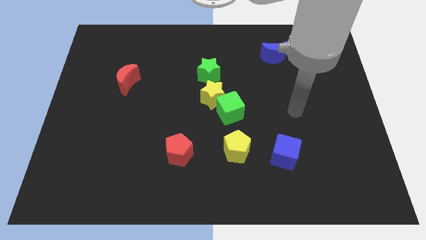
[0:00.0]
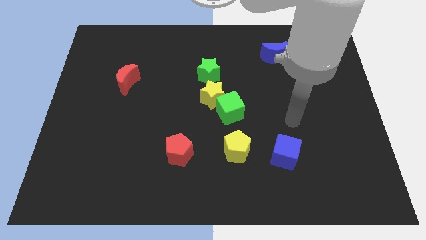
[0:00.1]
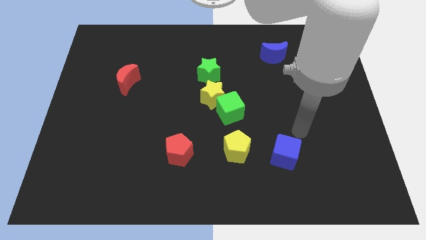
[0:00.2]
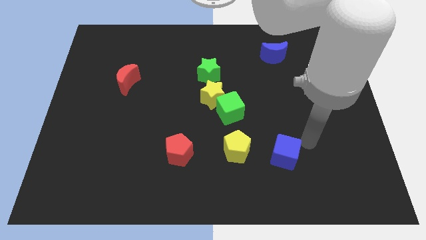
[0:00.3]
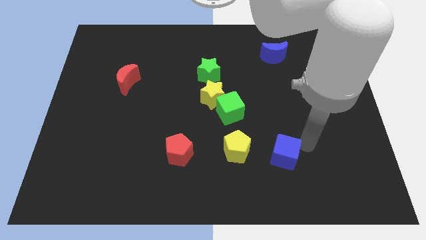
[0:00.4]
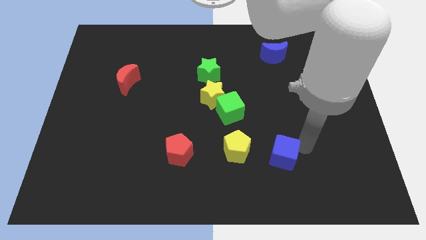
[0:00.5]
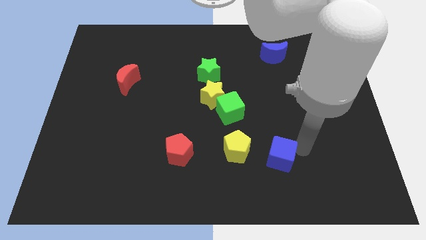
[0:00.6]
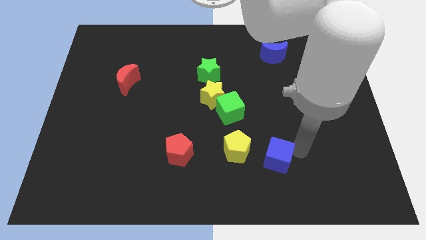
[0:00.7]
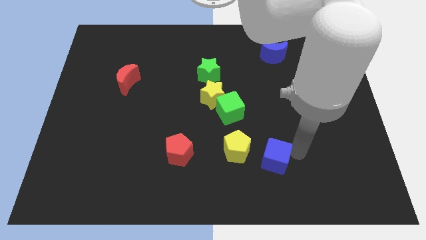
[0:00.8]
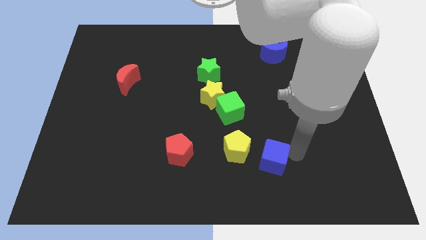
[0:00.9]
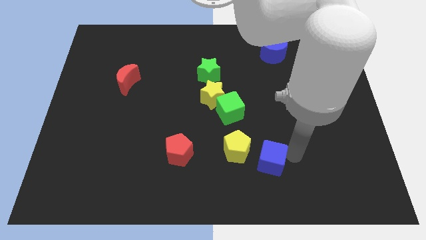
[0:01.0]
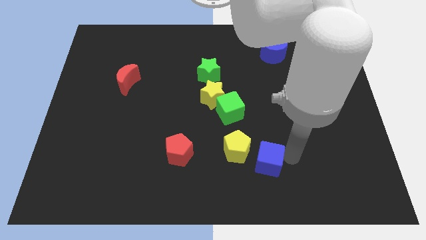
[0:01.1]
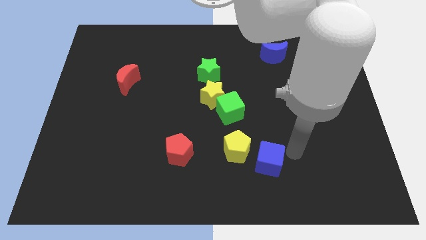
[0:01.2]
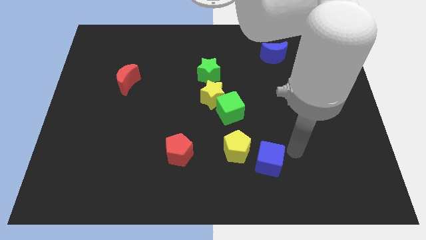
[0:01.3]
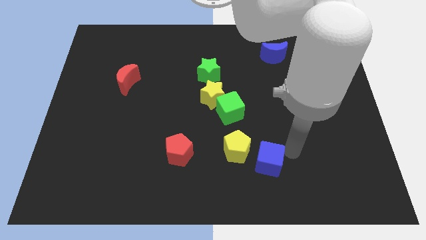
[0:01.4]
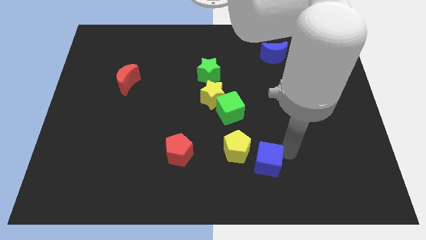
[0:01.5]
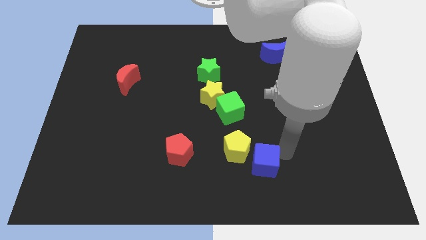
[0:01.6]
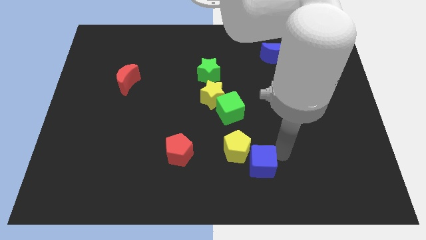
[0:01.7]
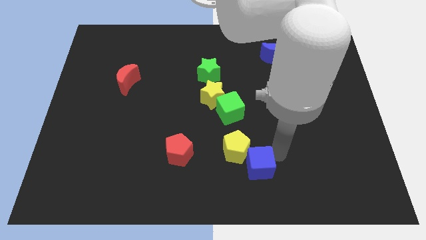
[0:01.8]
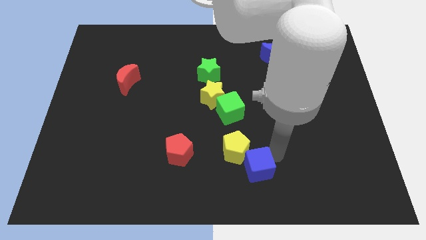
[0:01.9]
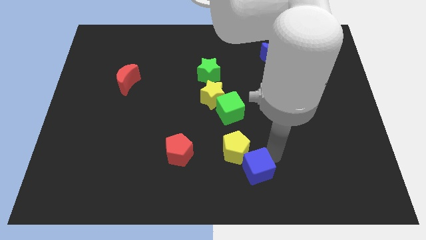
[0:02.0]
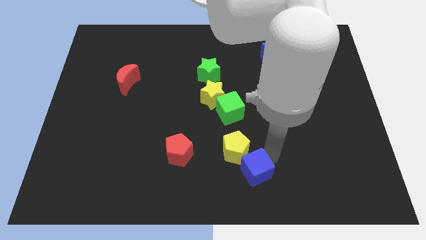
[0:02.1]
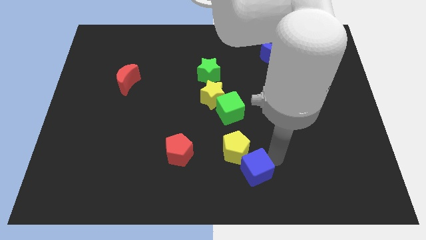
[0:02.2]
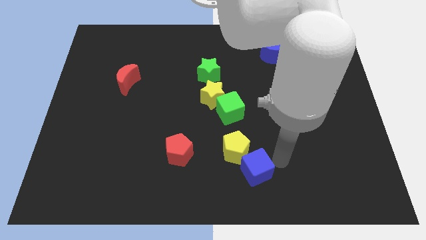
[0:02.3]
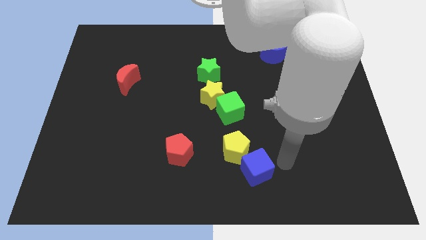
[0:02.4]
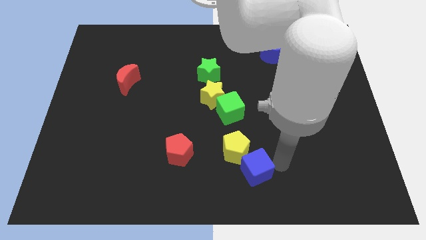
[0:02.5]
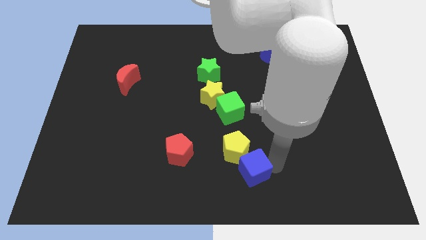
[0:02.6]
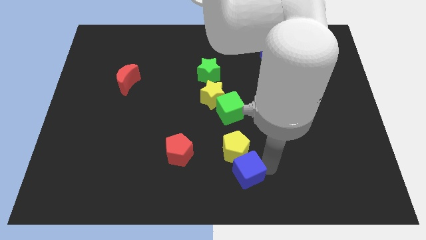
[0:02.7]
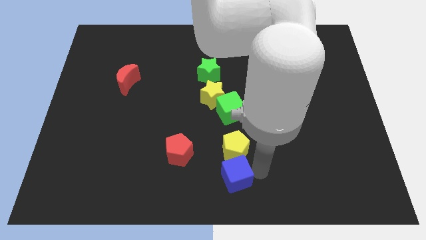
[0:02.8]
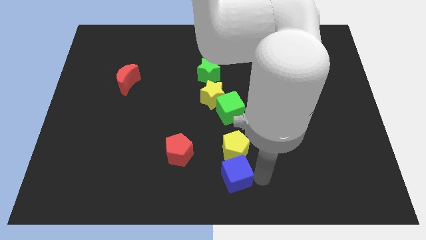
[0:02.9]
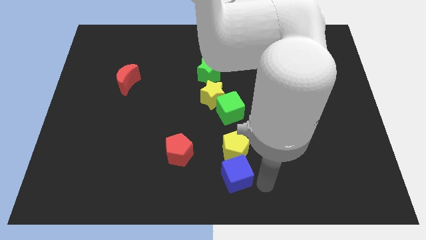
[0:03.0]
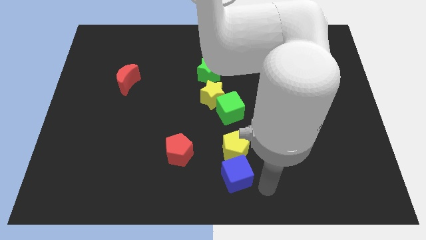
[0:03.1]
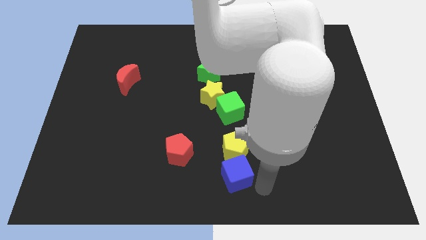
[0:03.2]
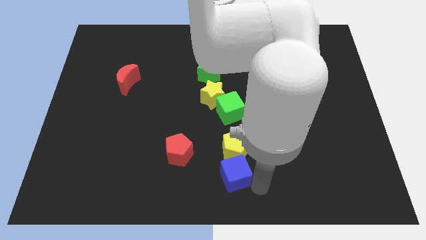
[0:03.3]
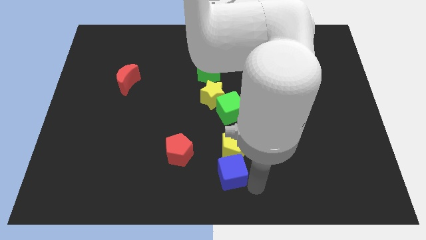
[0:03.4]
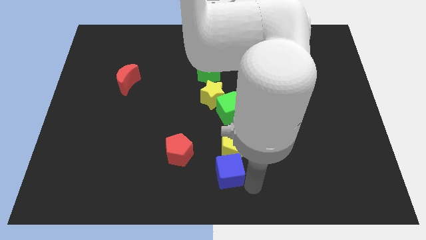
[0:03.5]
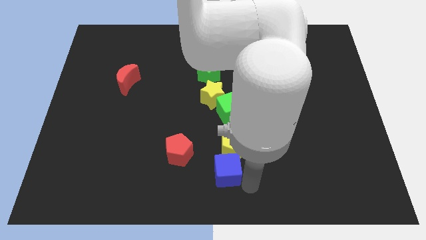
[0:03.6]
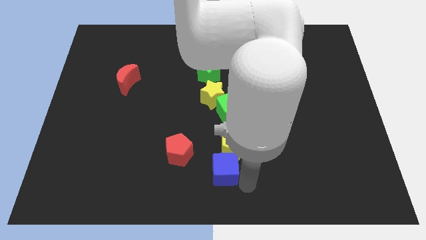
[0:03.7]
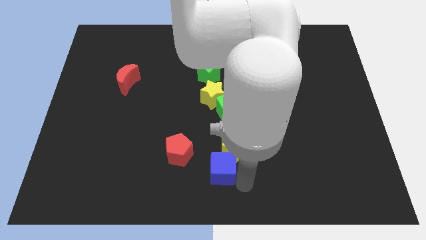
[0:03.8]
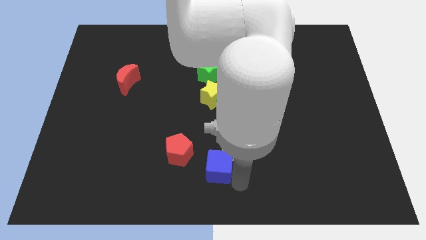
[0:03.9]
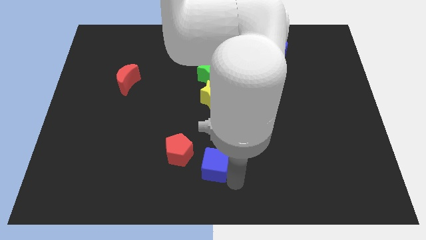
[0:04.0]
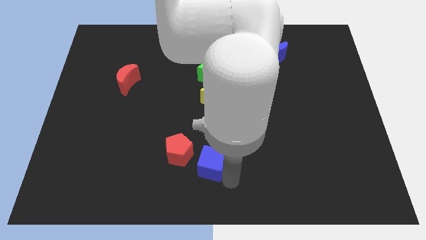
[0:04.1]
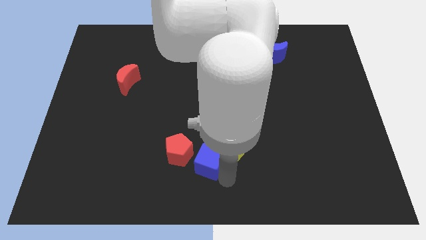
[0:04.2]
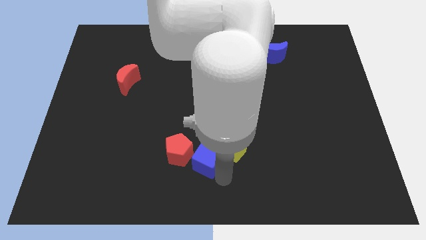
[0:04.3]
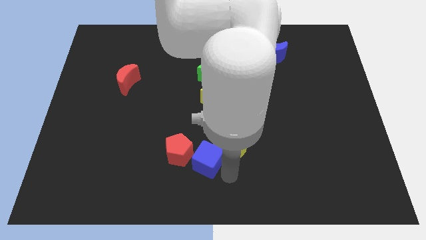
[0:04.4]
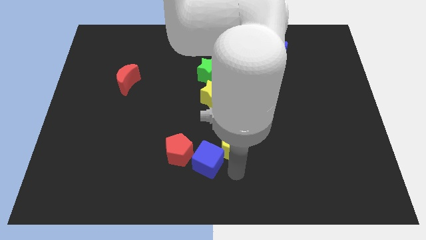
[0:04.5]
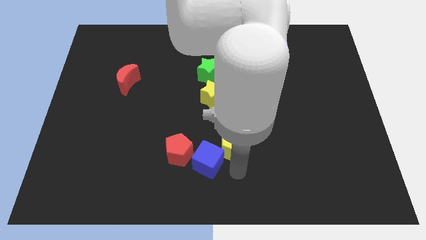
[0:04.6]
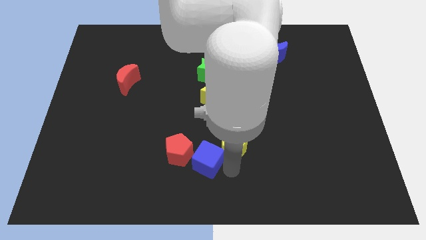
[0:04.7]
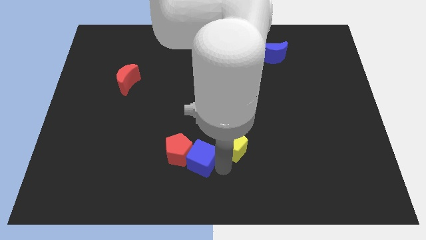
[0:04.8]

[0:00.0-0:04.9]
move the blue cube towards the red pentagon

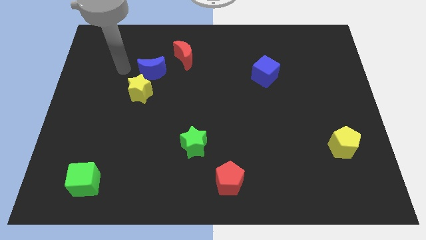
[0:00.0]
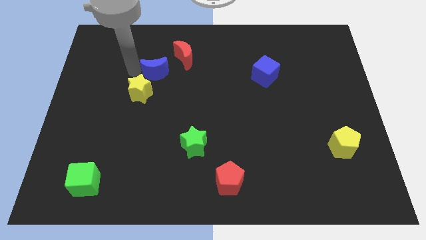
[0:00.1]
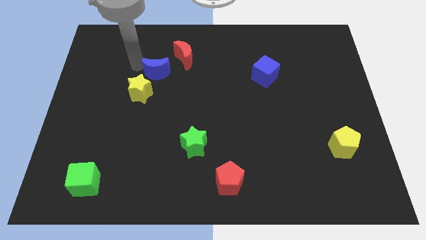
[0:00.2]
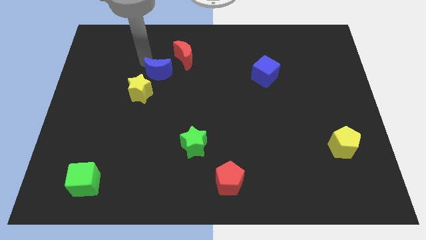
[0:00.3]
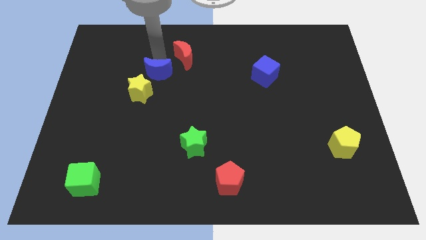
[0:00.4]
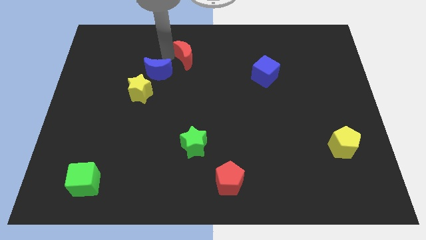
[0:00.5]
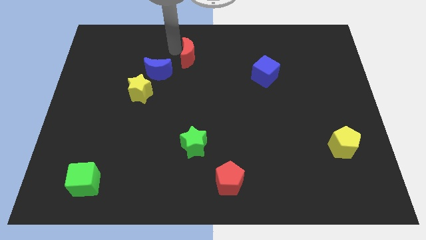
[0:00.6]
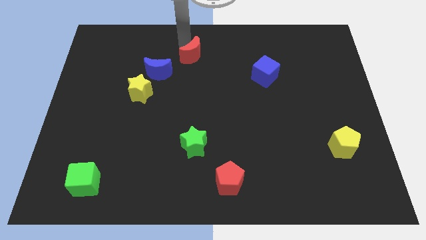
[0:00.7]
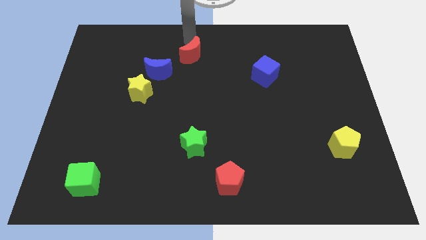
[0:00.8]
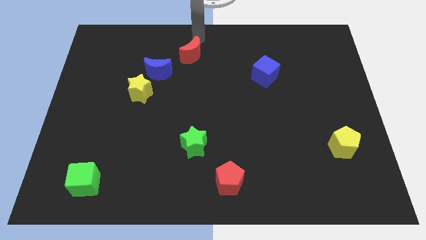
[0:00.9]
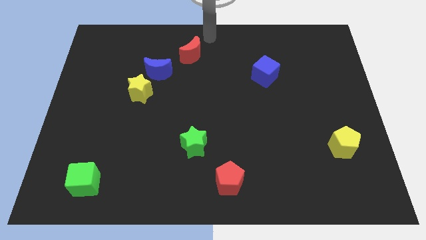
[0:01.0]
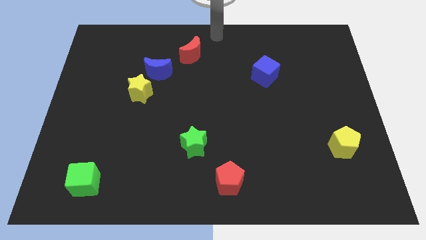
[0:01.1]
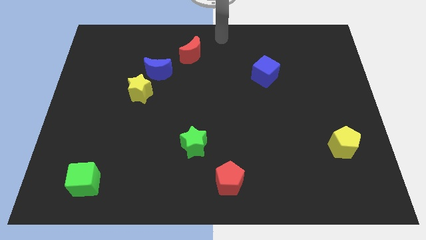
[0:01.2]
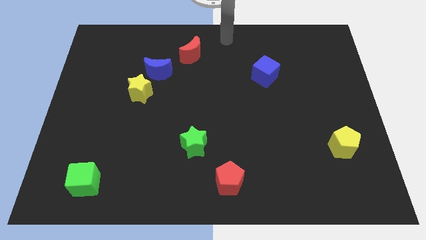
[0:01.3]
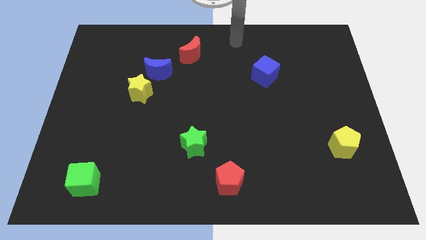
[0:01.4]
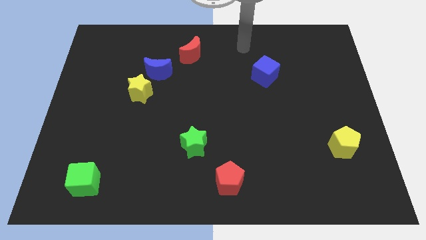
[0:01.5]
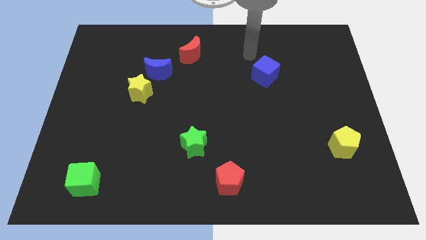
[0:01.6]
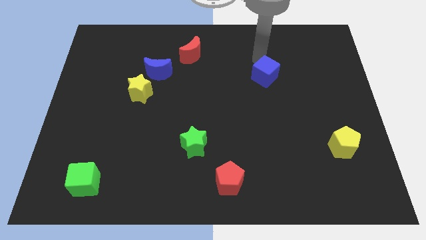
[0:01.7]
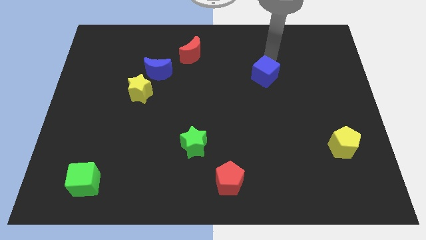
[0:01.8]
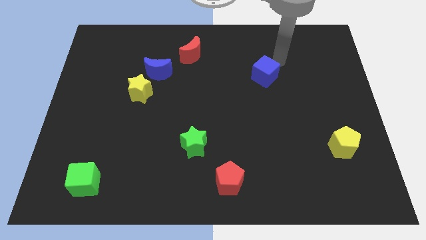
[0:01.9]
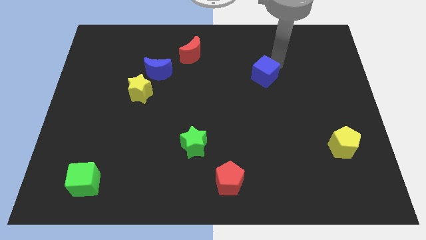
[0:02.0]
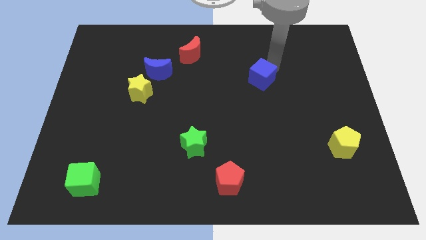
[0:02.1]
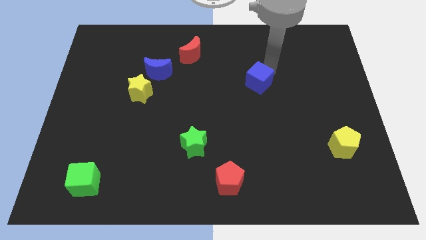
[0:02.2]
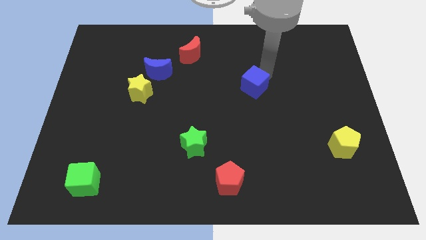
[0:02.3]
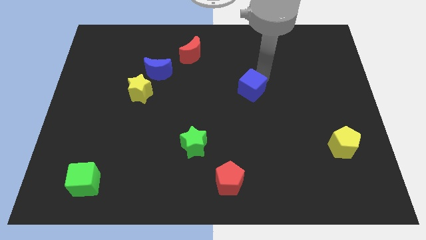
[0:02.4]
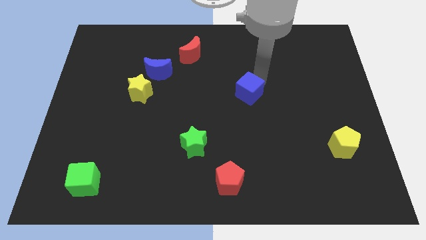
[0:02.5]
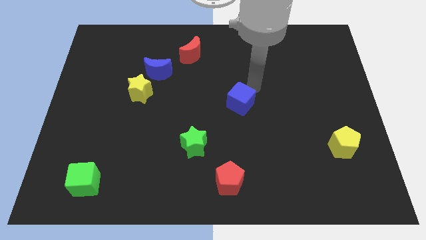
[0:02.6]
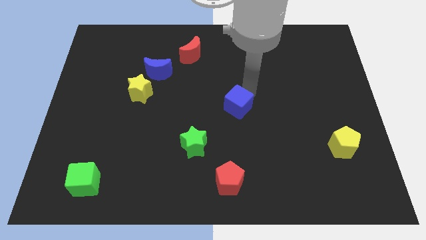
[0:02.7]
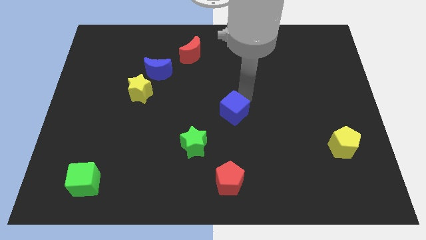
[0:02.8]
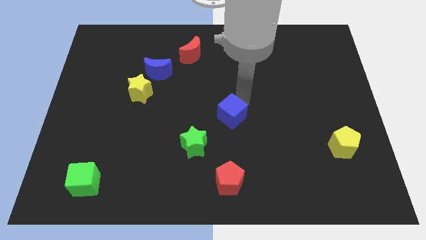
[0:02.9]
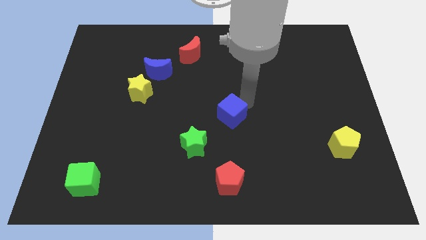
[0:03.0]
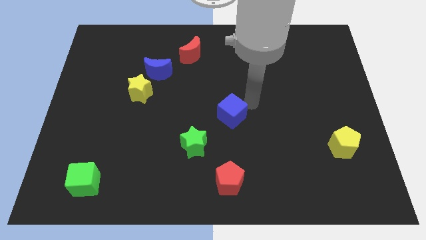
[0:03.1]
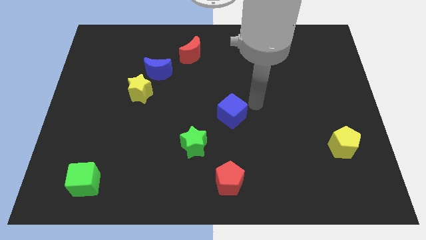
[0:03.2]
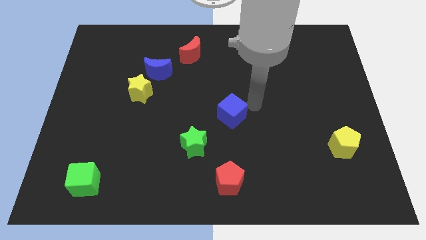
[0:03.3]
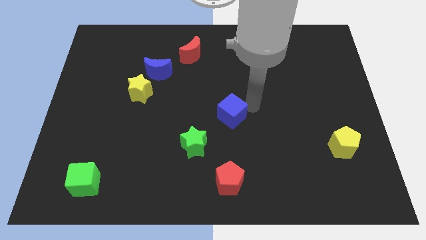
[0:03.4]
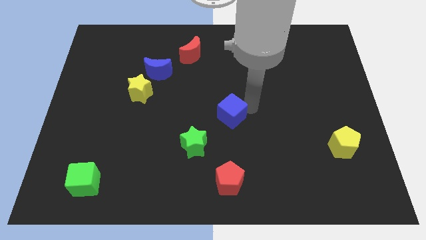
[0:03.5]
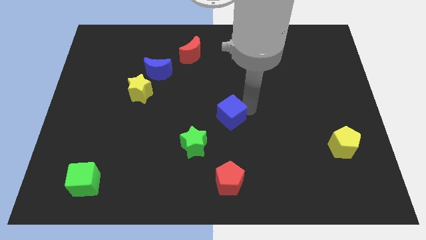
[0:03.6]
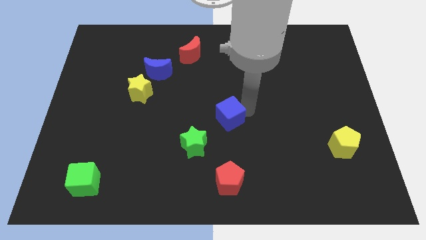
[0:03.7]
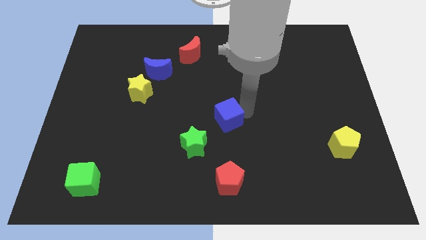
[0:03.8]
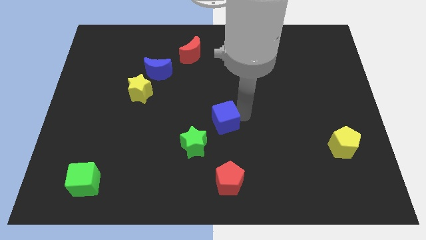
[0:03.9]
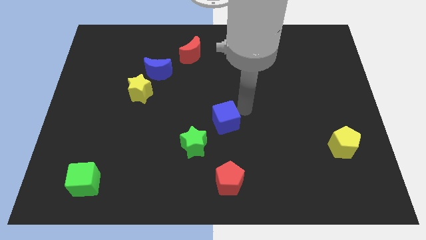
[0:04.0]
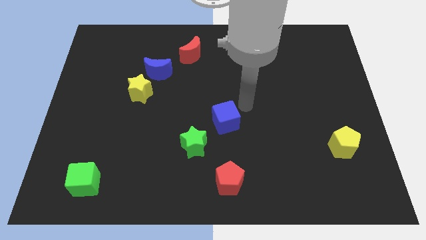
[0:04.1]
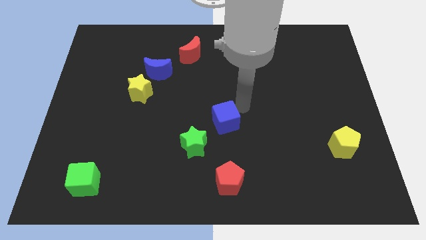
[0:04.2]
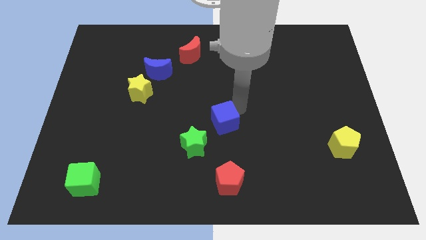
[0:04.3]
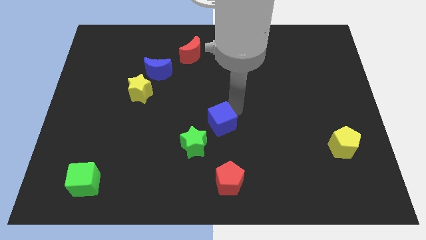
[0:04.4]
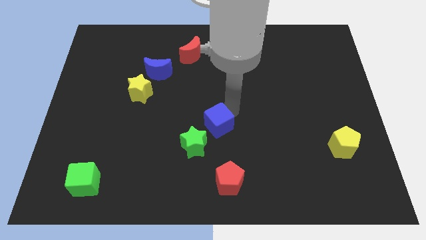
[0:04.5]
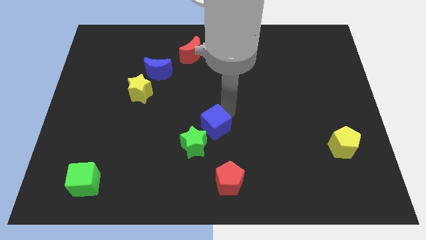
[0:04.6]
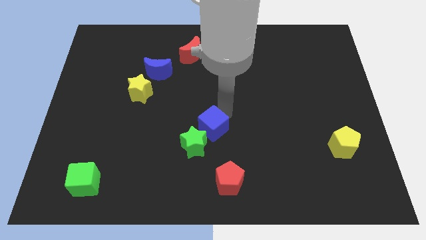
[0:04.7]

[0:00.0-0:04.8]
put the blue cube next to the green star
